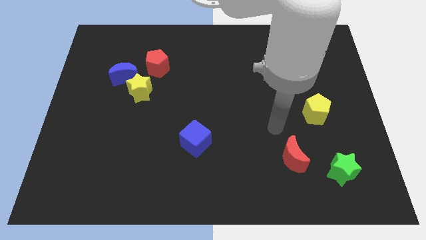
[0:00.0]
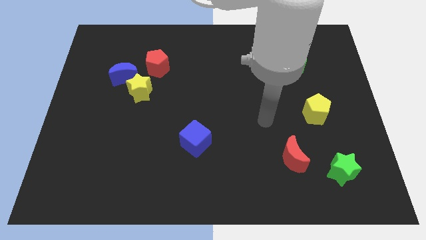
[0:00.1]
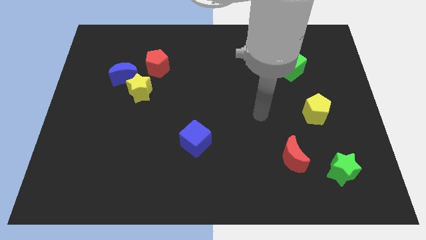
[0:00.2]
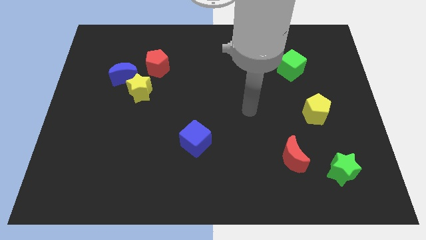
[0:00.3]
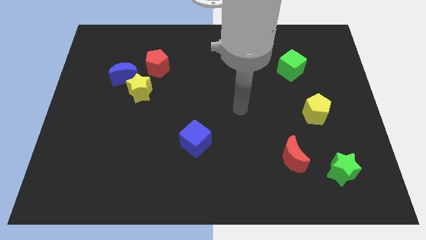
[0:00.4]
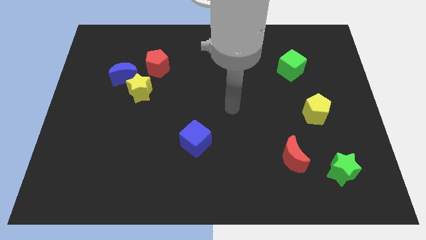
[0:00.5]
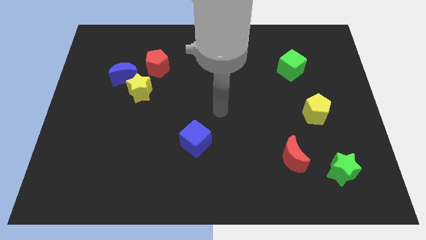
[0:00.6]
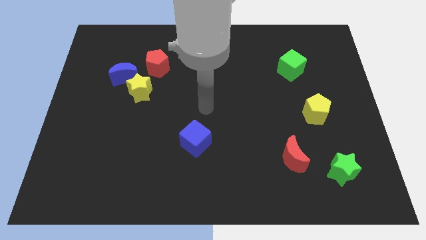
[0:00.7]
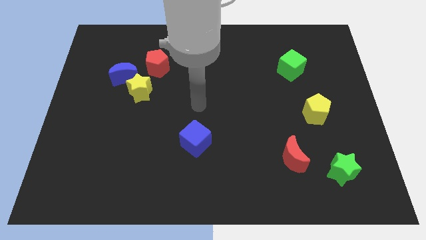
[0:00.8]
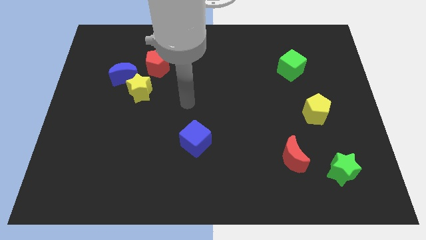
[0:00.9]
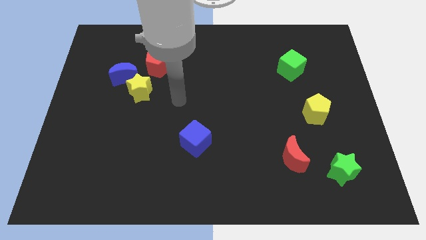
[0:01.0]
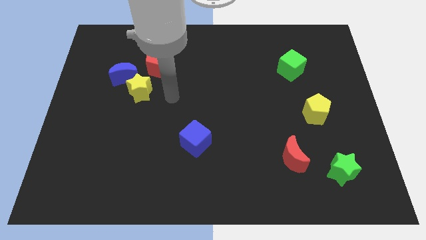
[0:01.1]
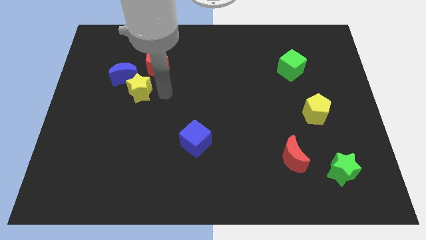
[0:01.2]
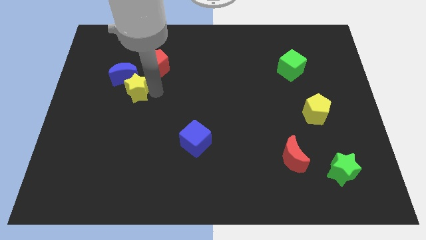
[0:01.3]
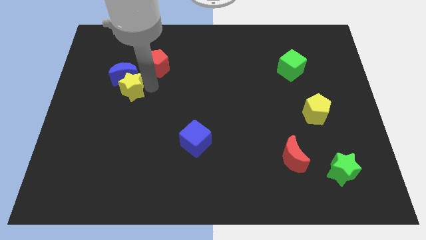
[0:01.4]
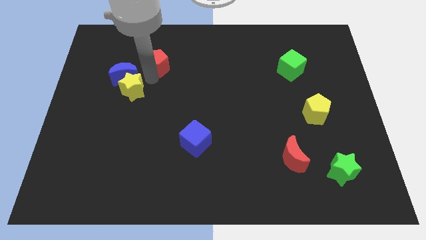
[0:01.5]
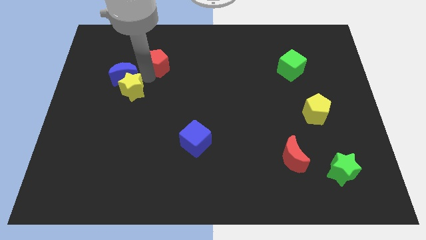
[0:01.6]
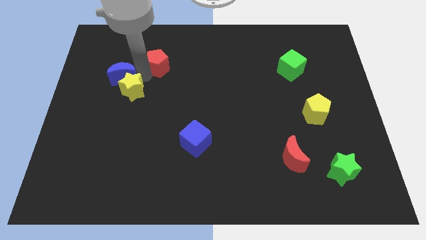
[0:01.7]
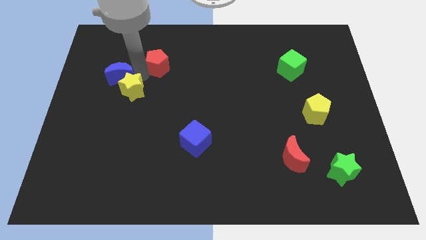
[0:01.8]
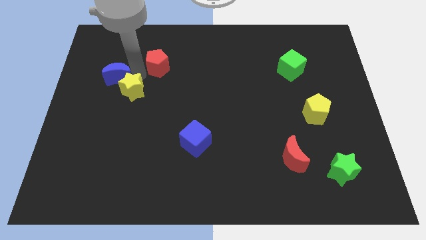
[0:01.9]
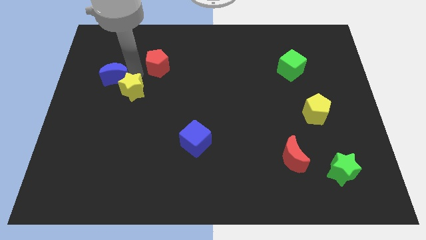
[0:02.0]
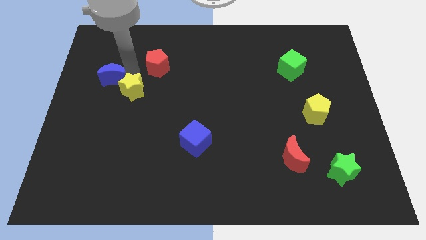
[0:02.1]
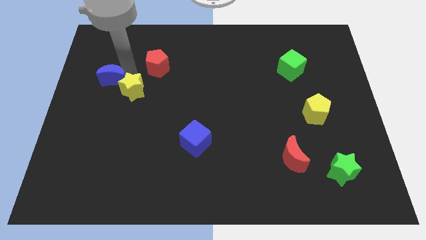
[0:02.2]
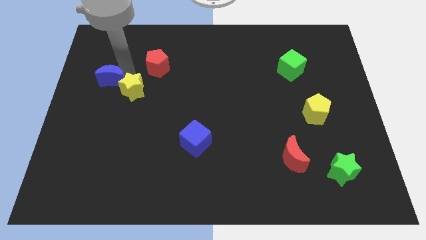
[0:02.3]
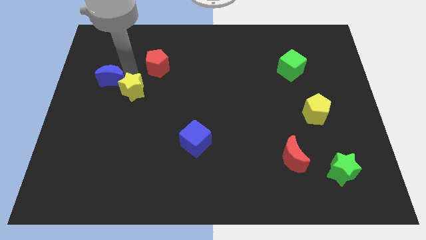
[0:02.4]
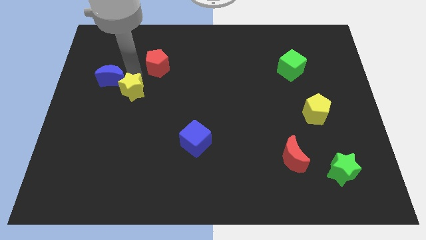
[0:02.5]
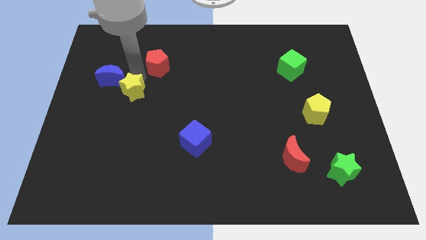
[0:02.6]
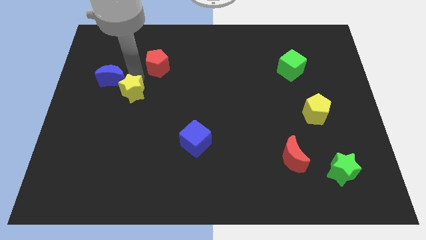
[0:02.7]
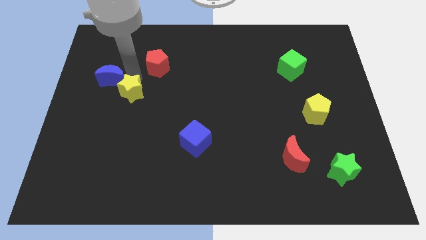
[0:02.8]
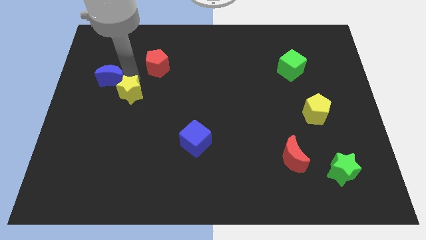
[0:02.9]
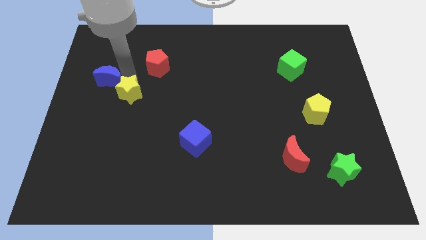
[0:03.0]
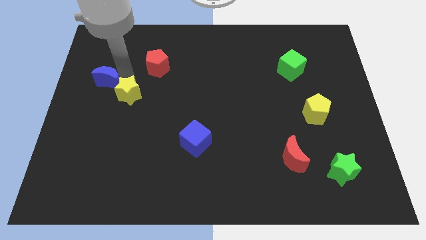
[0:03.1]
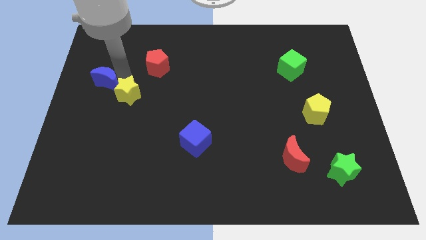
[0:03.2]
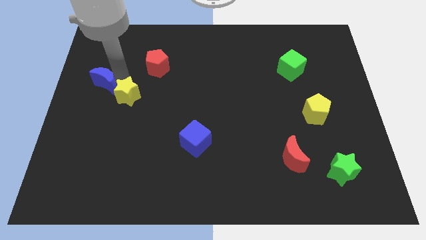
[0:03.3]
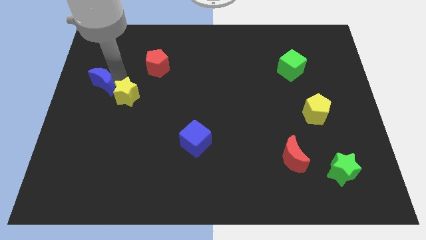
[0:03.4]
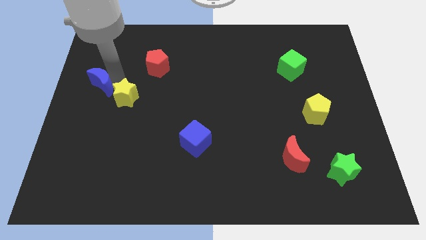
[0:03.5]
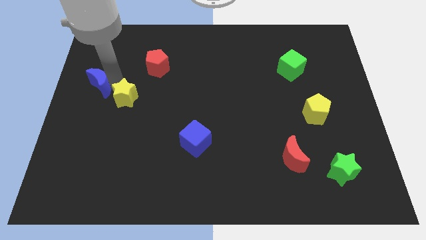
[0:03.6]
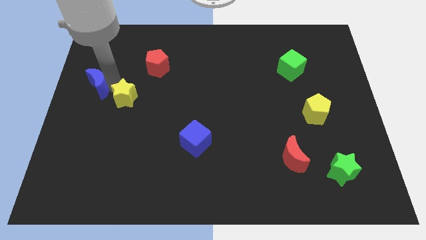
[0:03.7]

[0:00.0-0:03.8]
pull the blue moon apart from the yellow star and red pentagon

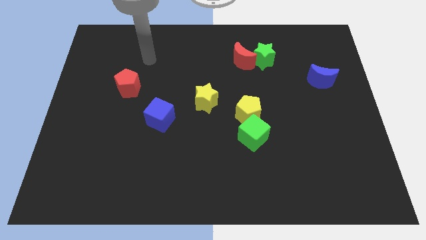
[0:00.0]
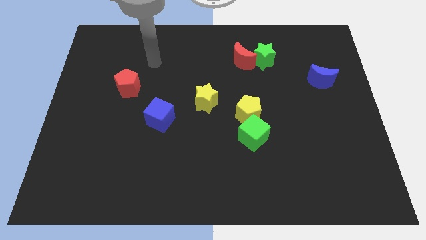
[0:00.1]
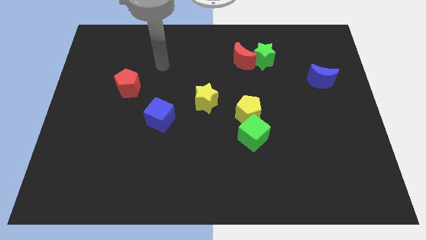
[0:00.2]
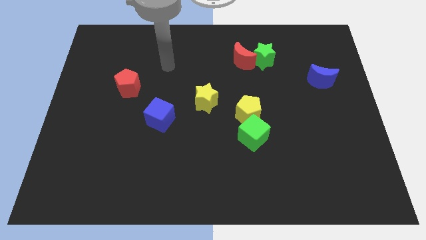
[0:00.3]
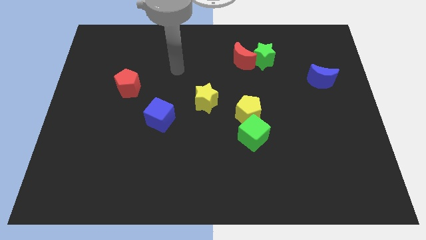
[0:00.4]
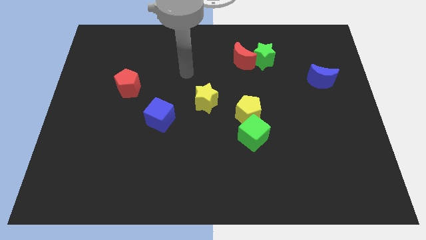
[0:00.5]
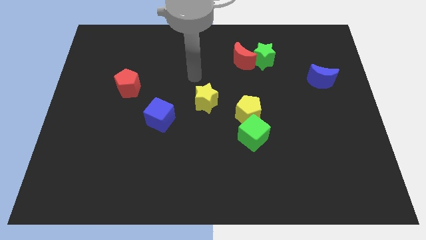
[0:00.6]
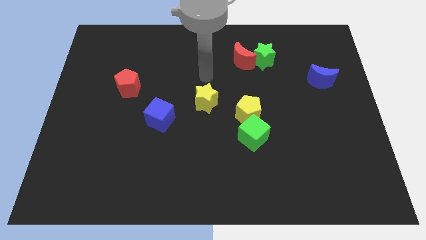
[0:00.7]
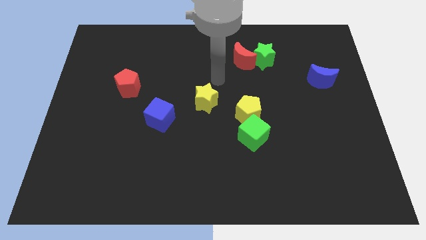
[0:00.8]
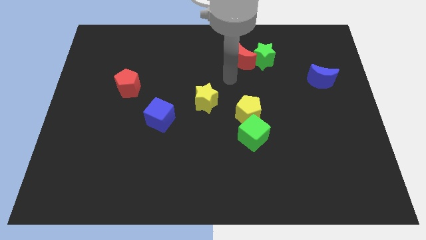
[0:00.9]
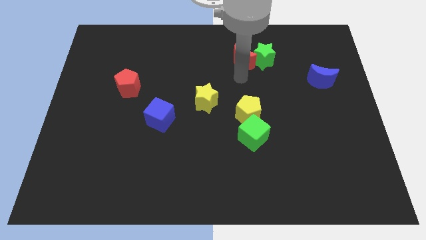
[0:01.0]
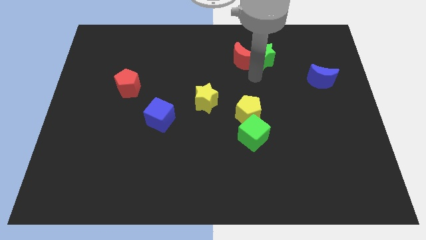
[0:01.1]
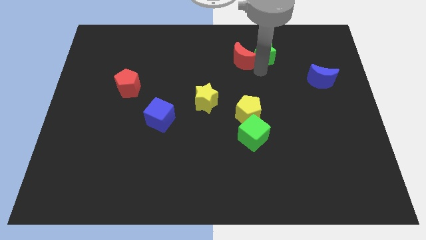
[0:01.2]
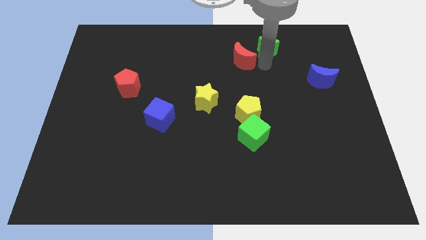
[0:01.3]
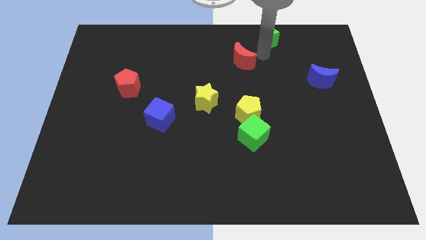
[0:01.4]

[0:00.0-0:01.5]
move the red moon away from the green star

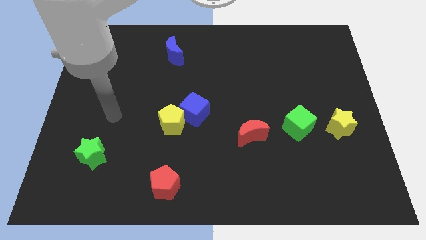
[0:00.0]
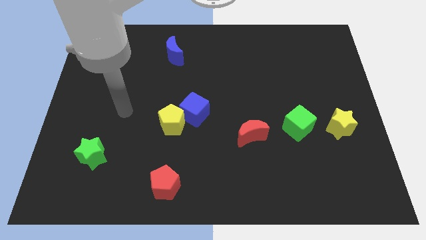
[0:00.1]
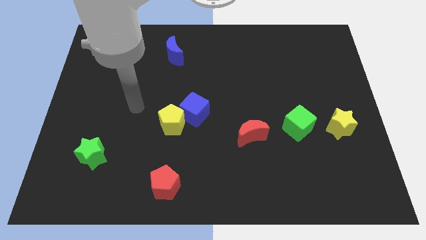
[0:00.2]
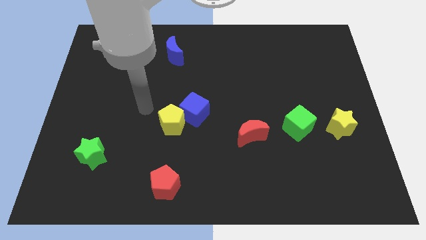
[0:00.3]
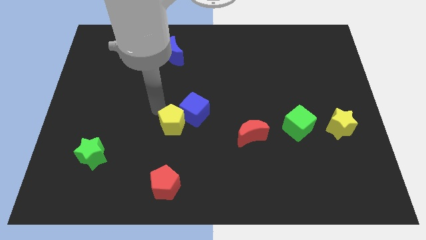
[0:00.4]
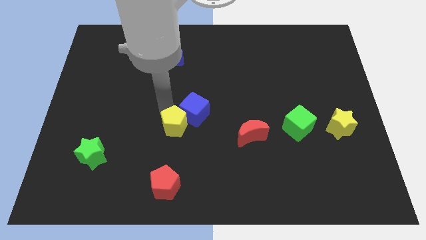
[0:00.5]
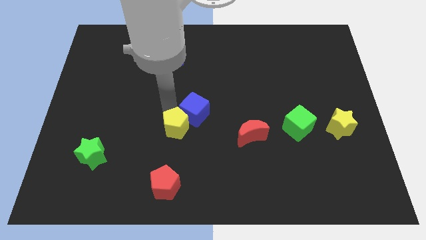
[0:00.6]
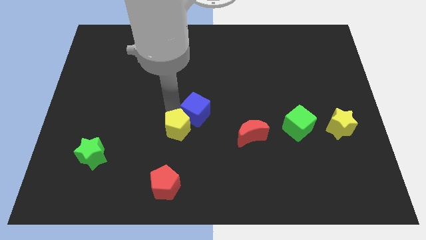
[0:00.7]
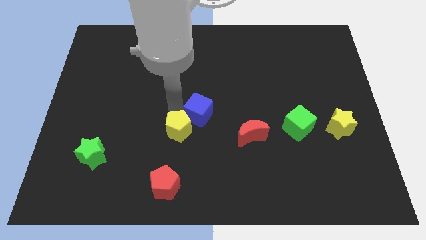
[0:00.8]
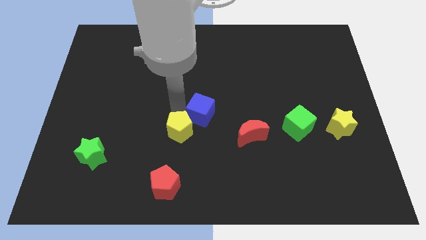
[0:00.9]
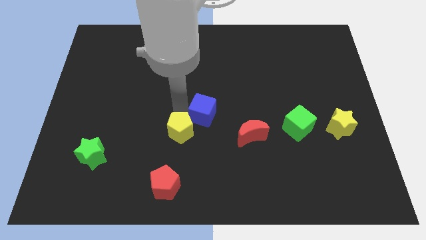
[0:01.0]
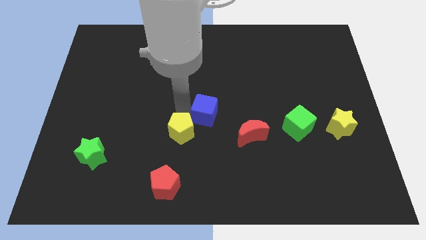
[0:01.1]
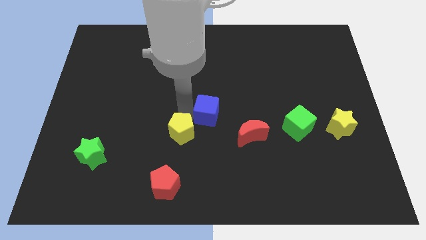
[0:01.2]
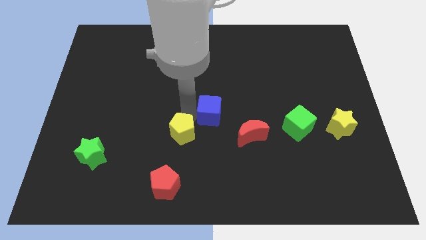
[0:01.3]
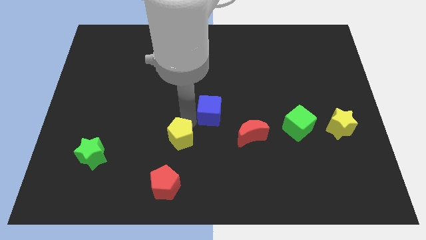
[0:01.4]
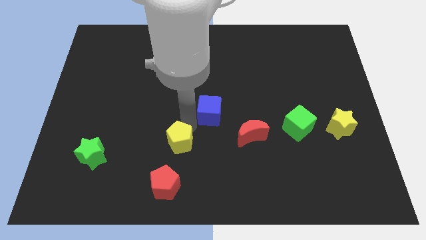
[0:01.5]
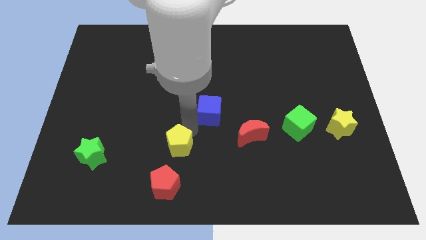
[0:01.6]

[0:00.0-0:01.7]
pull the blue cube apart from the yellow pentagon

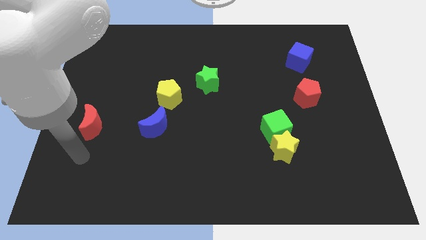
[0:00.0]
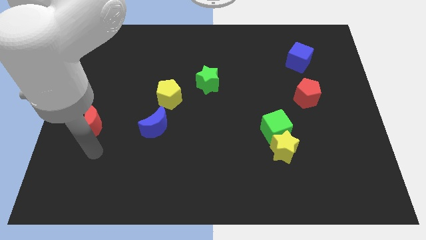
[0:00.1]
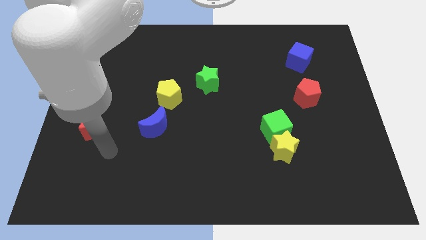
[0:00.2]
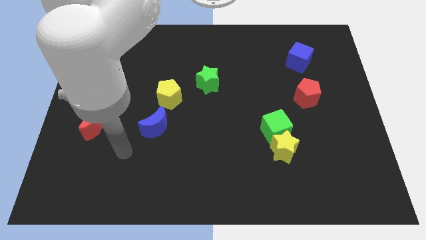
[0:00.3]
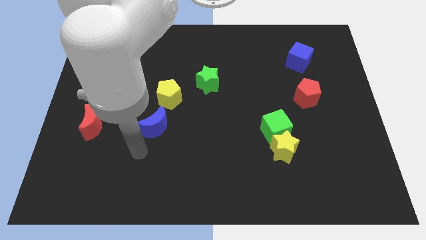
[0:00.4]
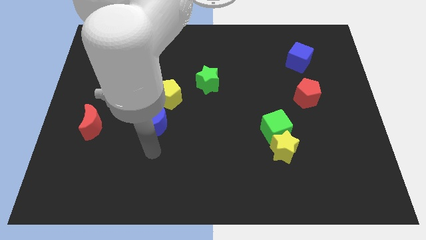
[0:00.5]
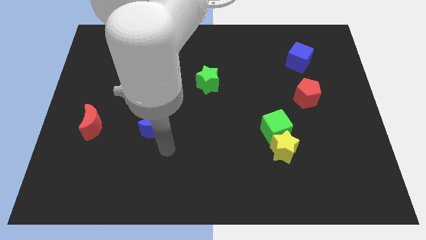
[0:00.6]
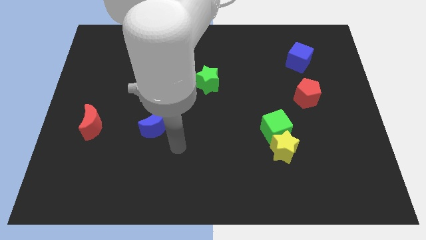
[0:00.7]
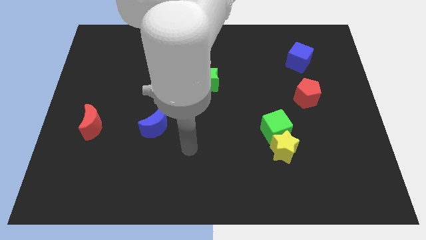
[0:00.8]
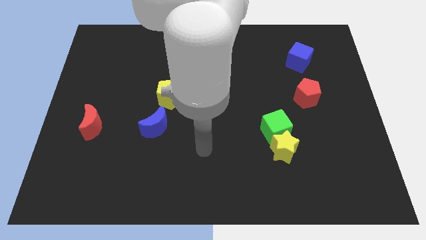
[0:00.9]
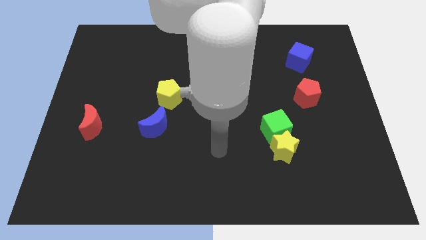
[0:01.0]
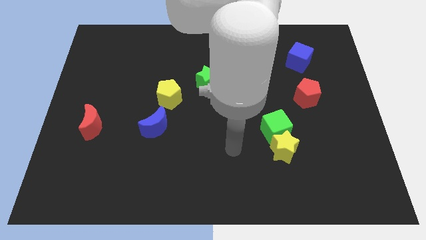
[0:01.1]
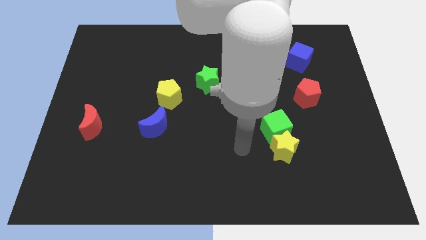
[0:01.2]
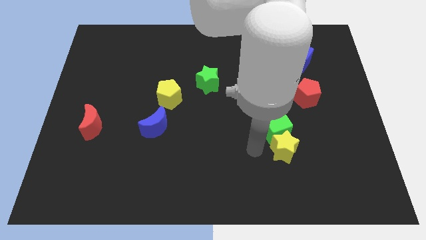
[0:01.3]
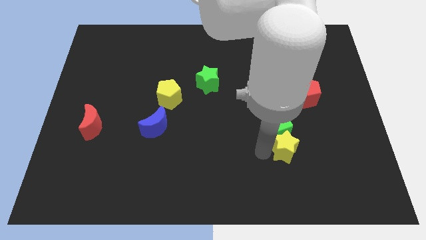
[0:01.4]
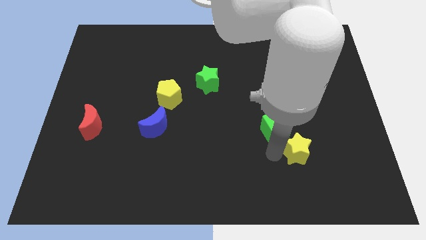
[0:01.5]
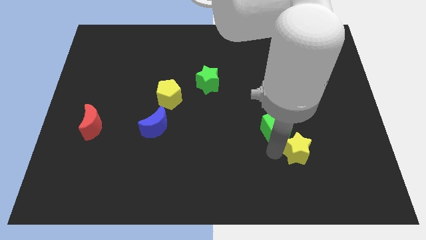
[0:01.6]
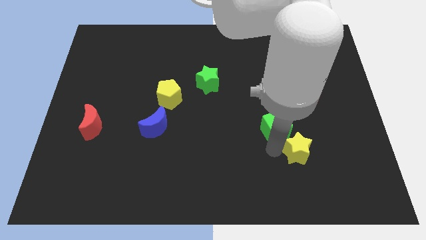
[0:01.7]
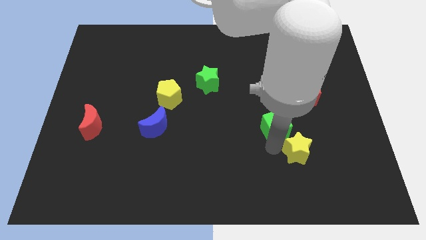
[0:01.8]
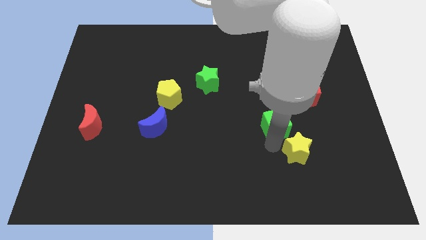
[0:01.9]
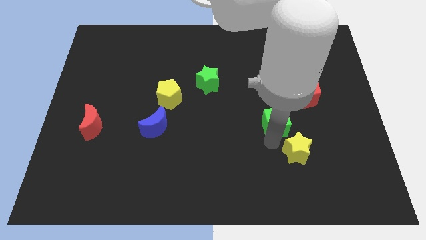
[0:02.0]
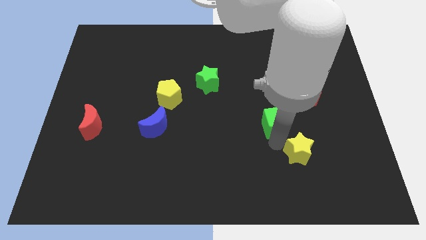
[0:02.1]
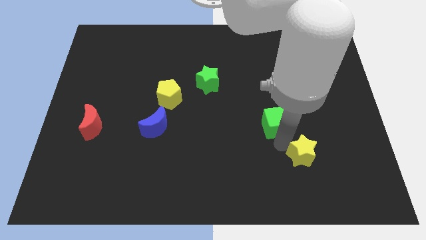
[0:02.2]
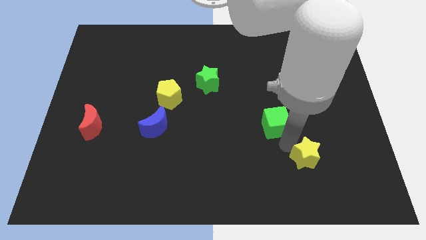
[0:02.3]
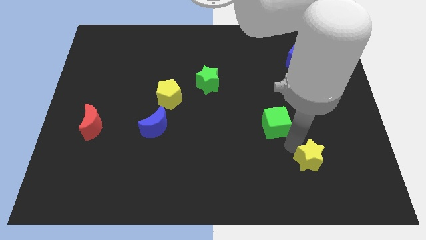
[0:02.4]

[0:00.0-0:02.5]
pull the green cube apart from the yellow star
